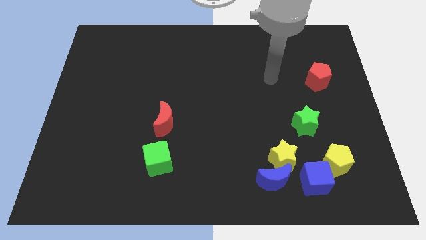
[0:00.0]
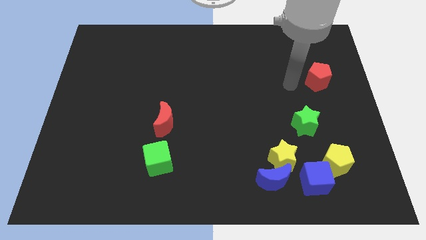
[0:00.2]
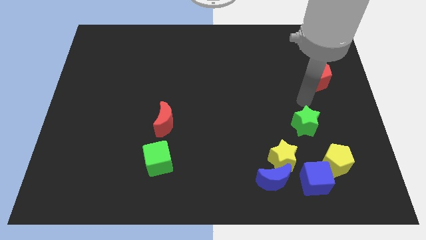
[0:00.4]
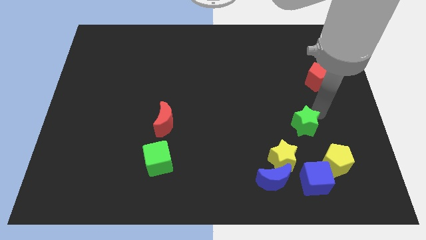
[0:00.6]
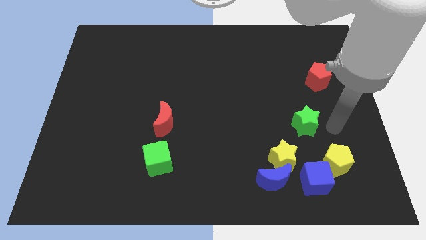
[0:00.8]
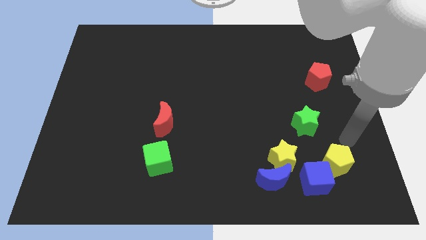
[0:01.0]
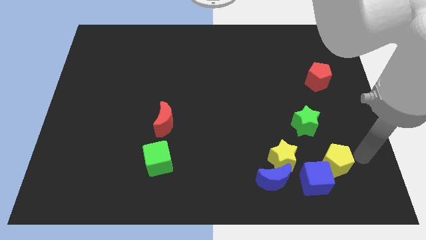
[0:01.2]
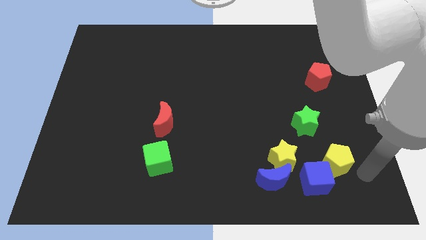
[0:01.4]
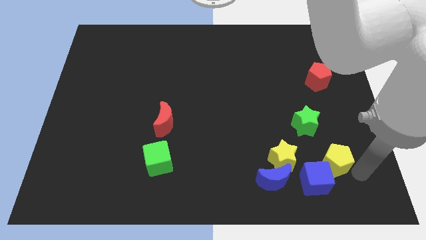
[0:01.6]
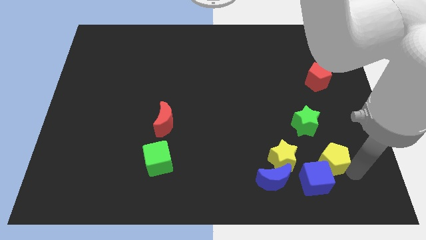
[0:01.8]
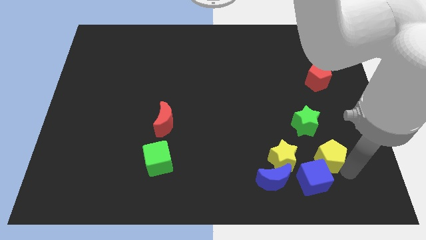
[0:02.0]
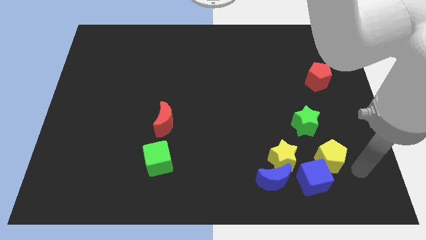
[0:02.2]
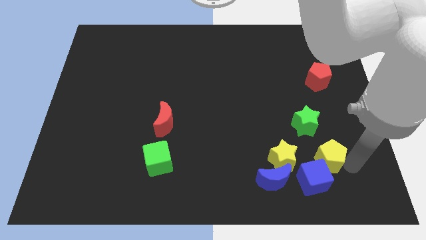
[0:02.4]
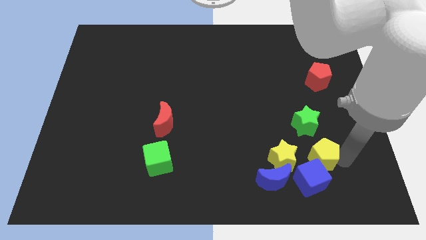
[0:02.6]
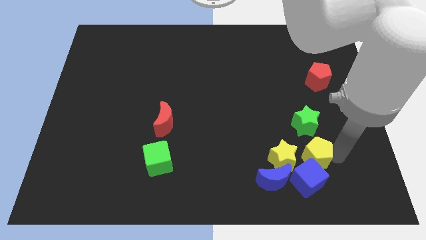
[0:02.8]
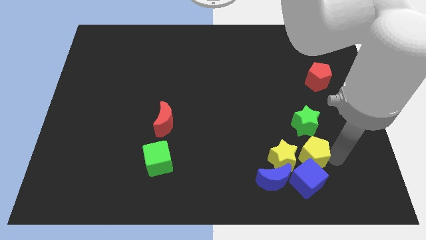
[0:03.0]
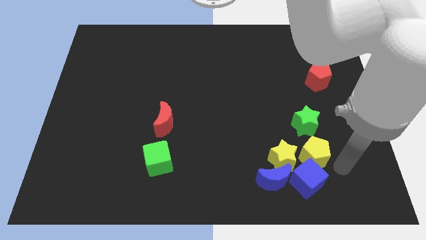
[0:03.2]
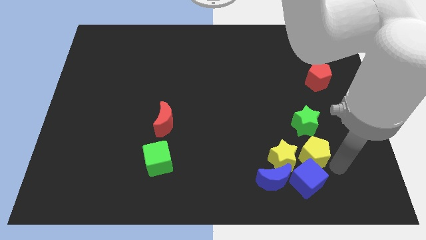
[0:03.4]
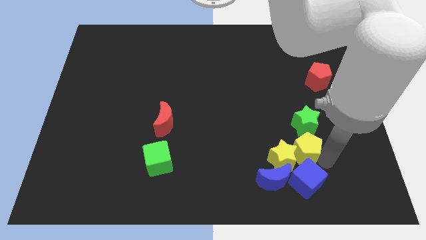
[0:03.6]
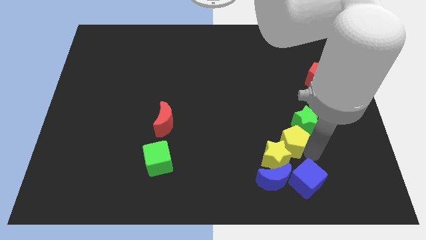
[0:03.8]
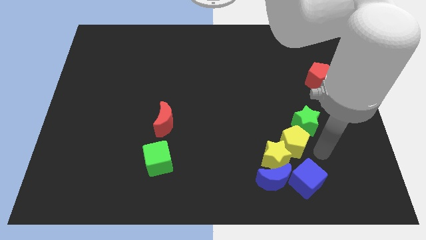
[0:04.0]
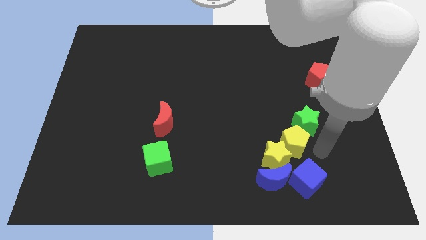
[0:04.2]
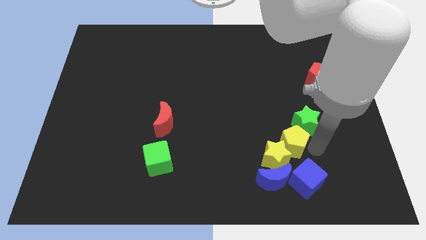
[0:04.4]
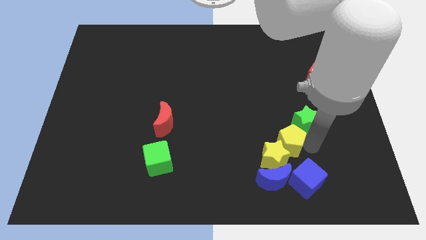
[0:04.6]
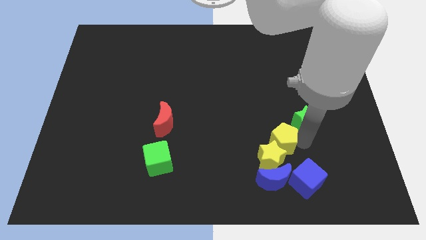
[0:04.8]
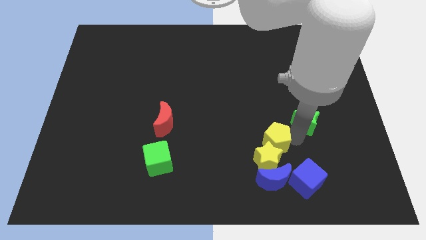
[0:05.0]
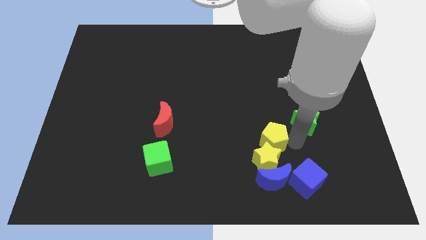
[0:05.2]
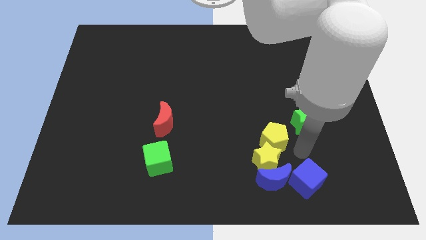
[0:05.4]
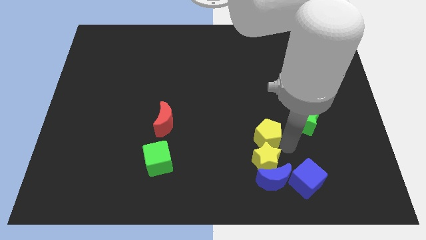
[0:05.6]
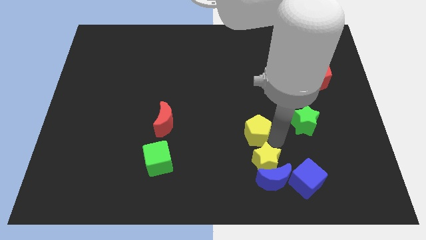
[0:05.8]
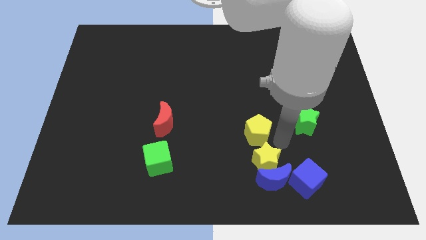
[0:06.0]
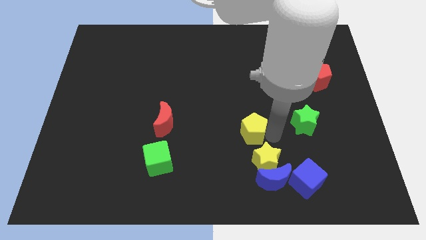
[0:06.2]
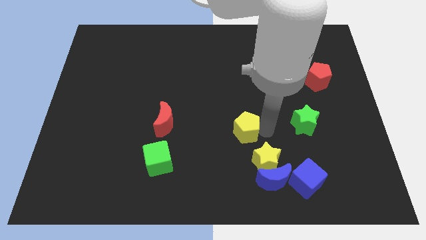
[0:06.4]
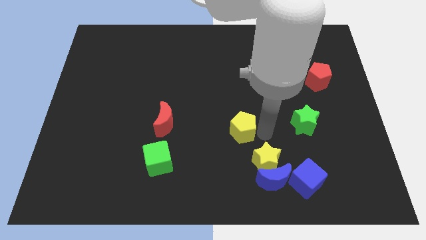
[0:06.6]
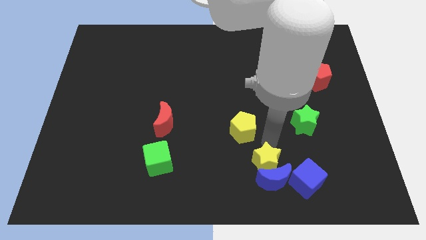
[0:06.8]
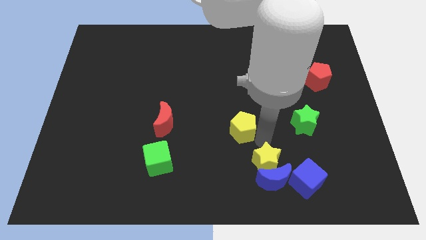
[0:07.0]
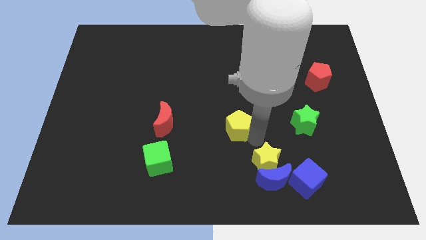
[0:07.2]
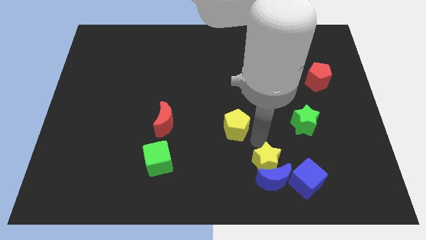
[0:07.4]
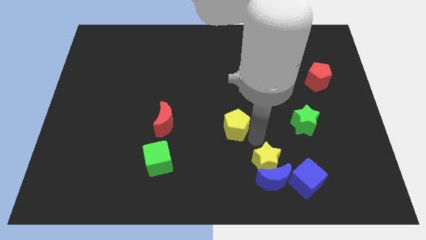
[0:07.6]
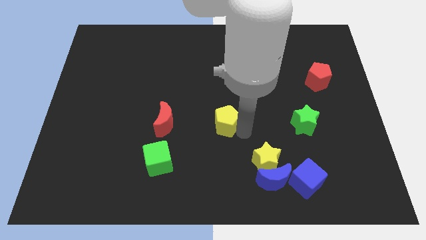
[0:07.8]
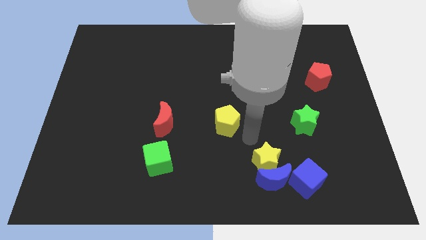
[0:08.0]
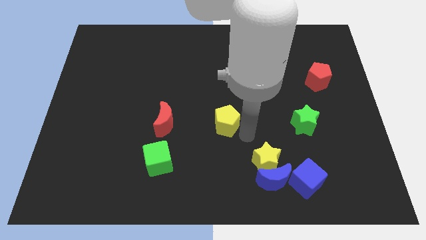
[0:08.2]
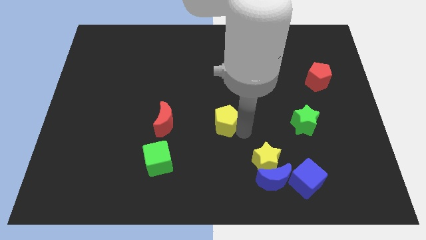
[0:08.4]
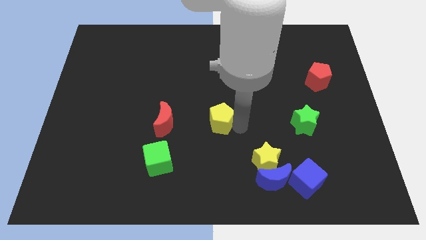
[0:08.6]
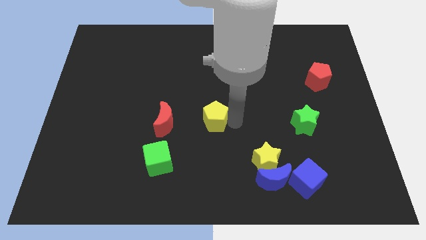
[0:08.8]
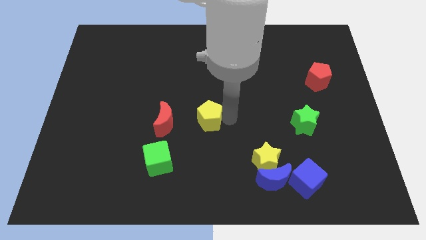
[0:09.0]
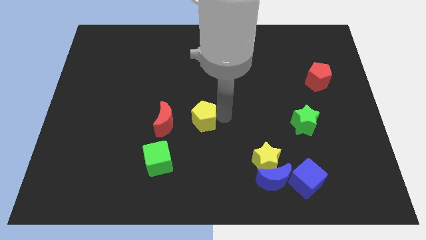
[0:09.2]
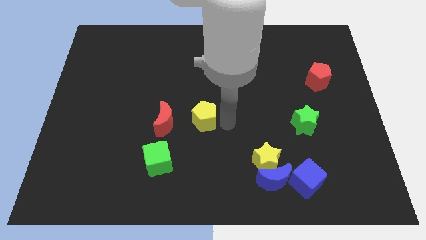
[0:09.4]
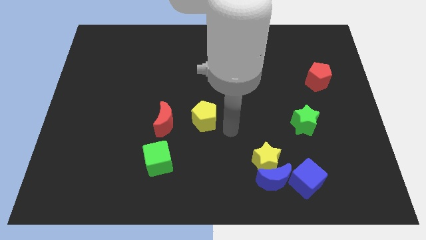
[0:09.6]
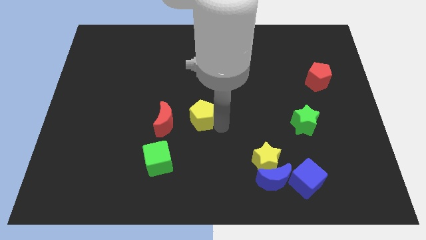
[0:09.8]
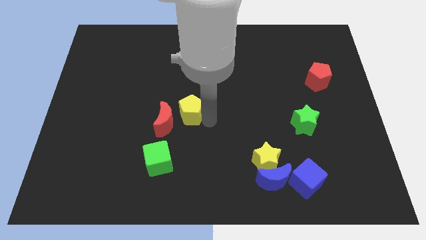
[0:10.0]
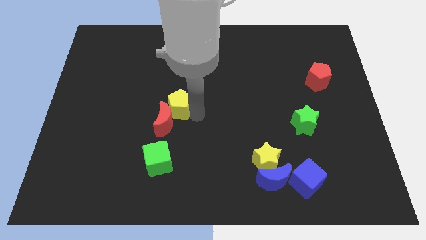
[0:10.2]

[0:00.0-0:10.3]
slide the yellow pentagon to the top side of the green cube

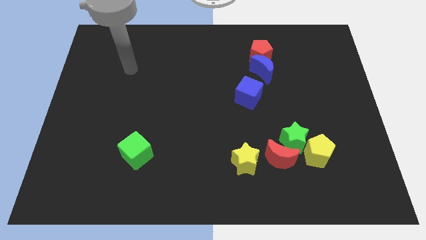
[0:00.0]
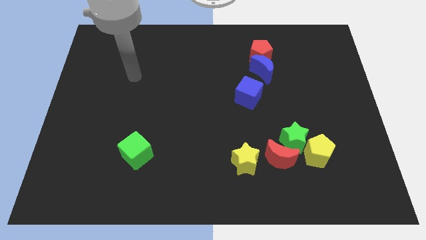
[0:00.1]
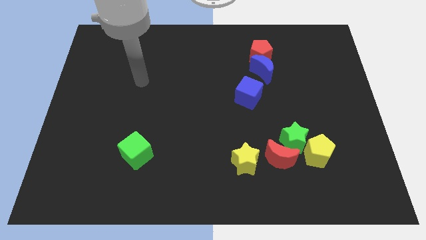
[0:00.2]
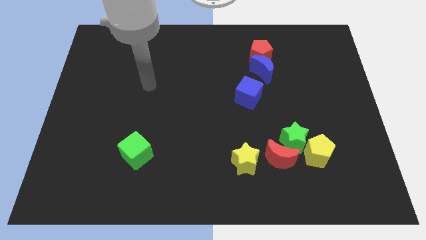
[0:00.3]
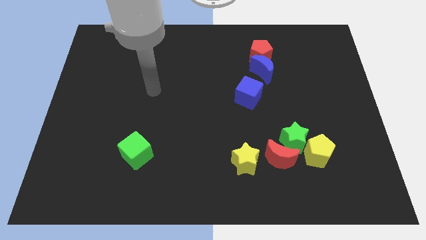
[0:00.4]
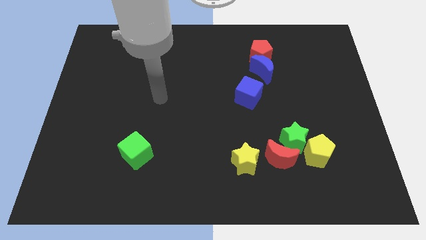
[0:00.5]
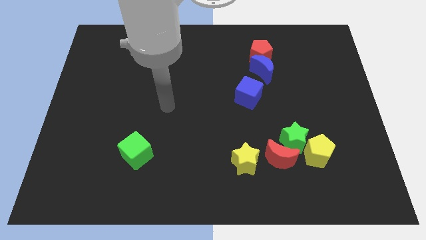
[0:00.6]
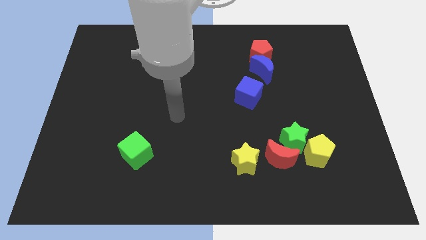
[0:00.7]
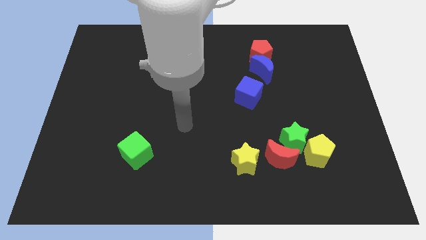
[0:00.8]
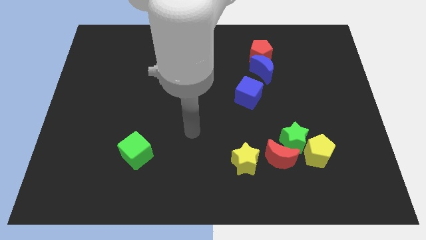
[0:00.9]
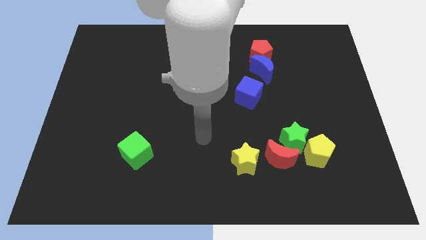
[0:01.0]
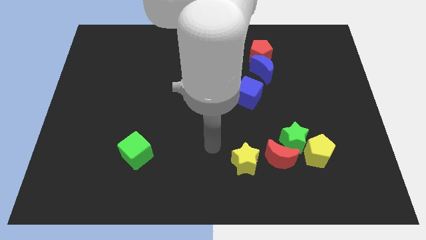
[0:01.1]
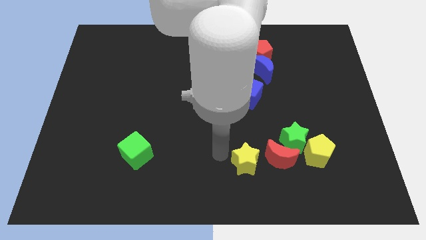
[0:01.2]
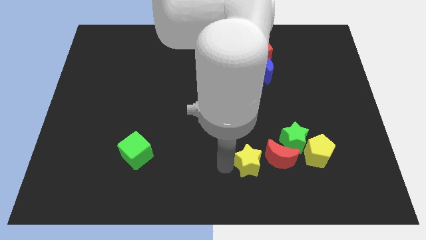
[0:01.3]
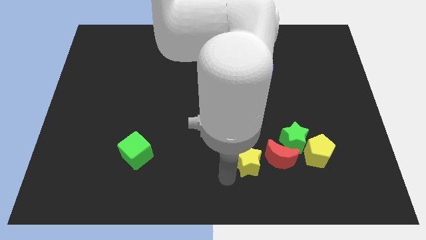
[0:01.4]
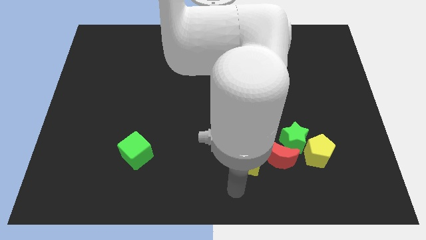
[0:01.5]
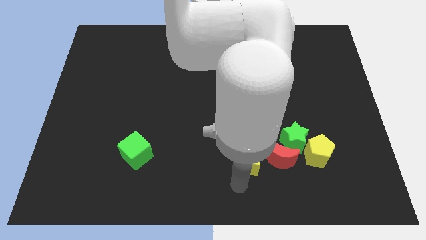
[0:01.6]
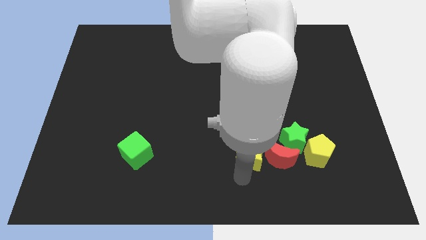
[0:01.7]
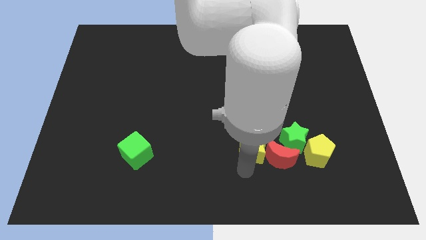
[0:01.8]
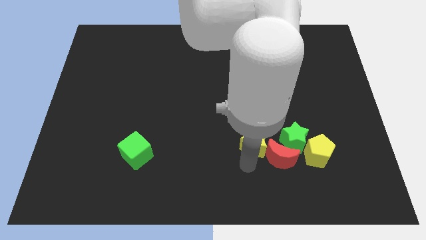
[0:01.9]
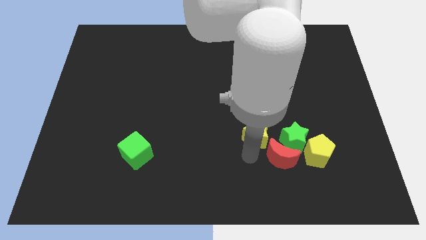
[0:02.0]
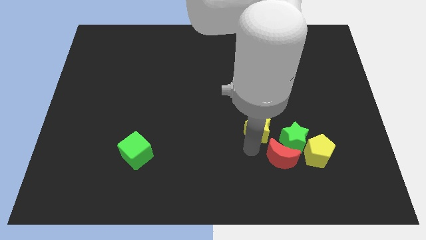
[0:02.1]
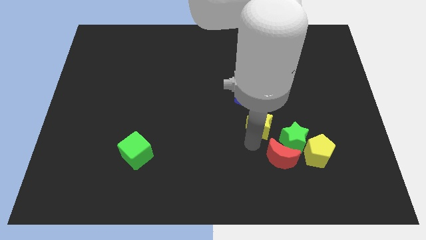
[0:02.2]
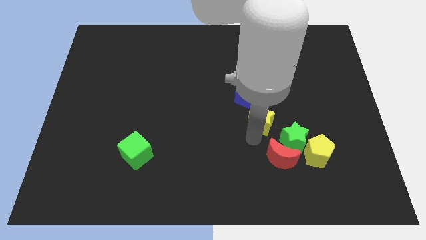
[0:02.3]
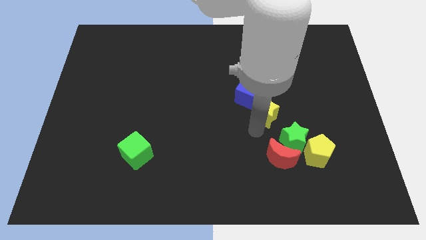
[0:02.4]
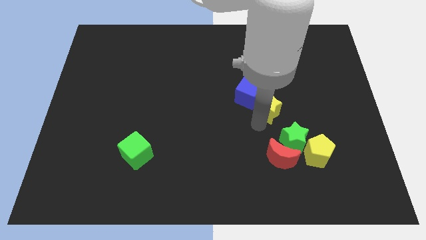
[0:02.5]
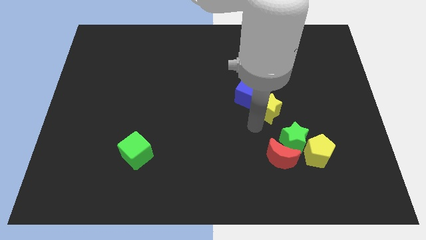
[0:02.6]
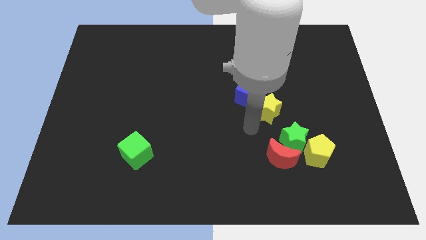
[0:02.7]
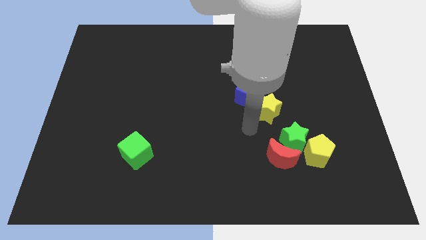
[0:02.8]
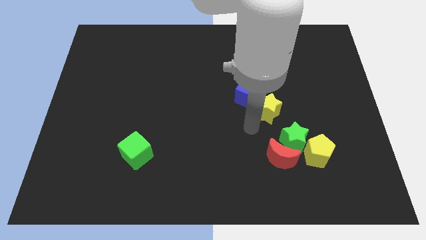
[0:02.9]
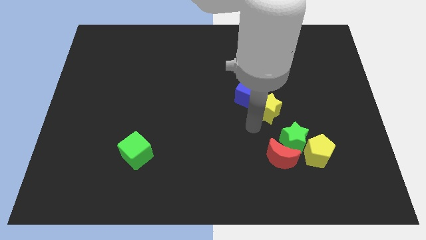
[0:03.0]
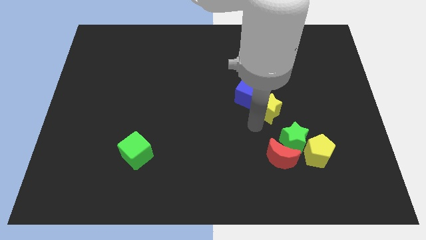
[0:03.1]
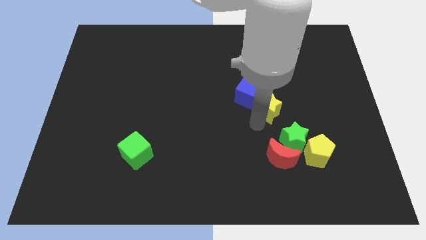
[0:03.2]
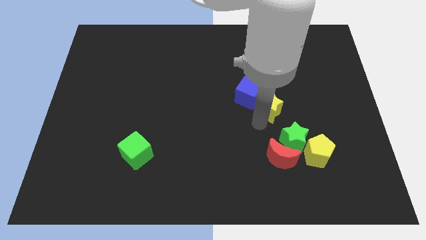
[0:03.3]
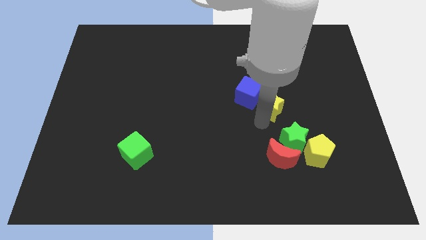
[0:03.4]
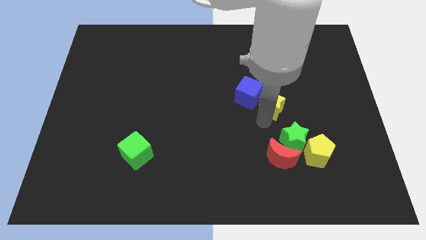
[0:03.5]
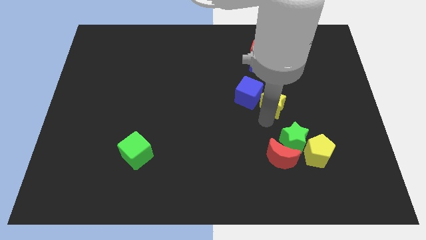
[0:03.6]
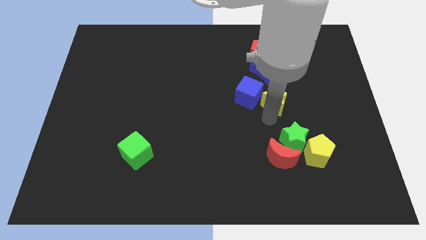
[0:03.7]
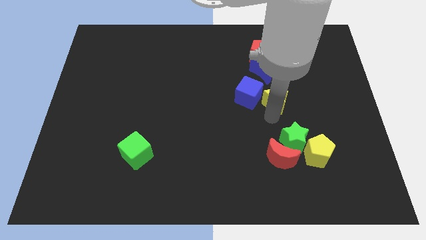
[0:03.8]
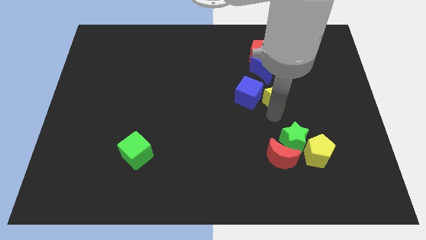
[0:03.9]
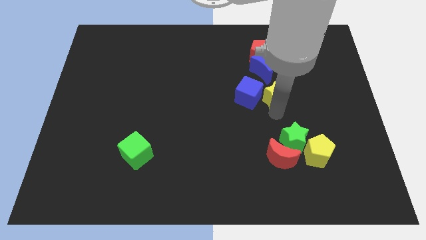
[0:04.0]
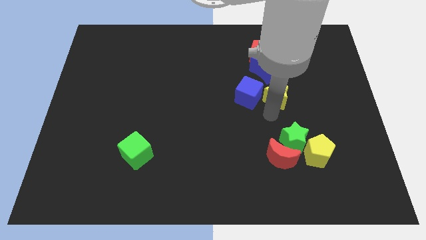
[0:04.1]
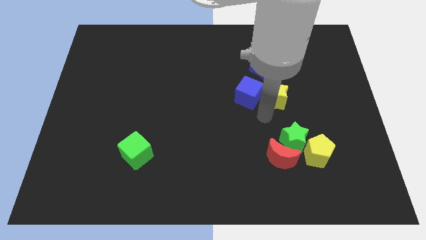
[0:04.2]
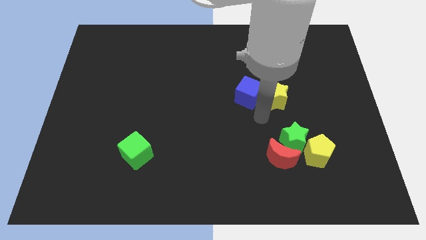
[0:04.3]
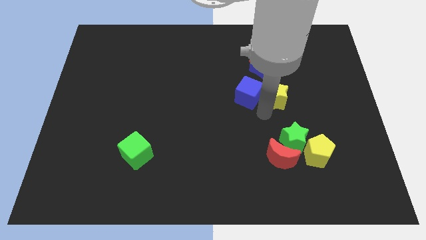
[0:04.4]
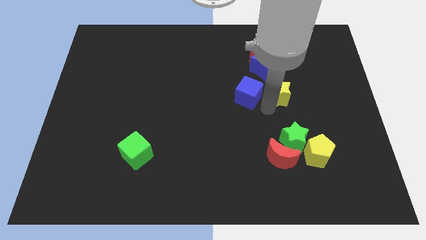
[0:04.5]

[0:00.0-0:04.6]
push the yellow star to the bottom right side of the blue moon
